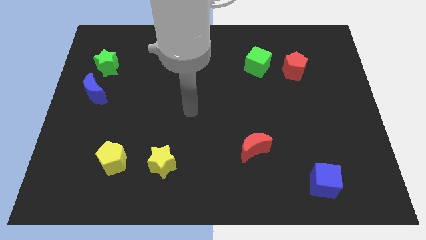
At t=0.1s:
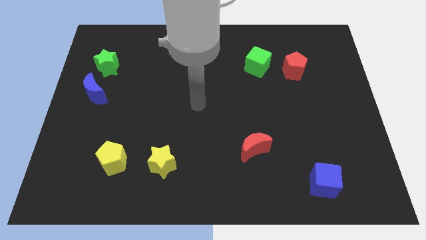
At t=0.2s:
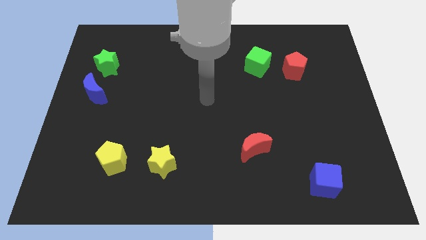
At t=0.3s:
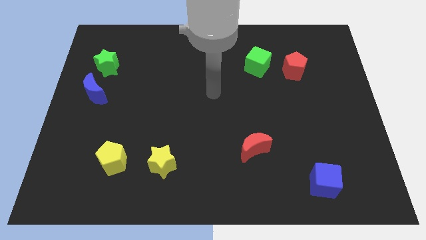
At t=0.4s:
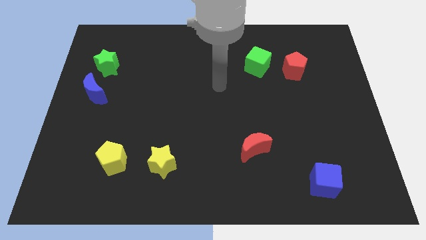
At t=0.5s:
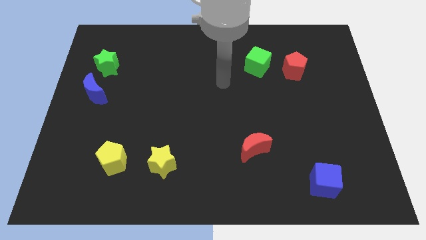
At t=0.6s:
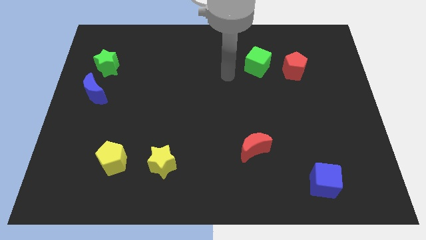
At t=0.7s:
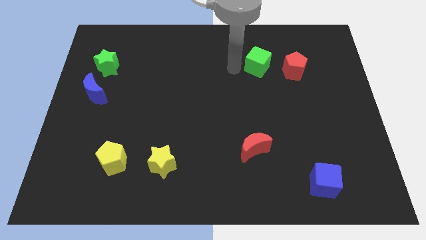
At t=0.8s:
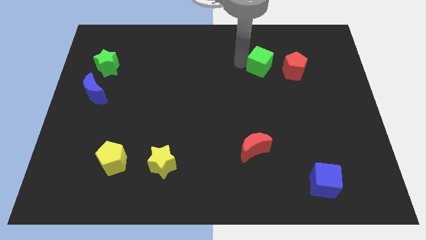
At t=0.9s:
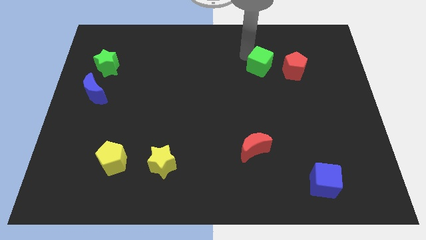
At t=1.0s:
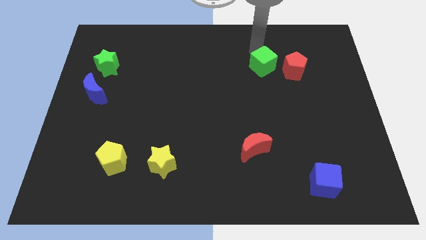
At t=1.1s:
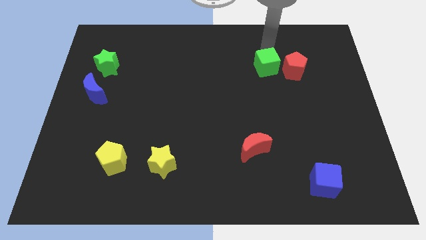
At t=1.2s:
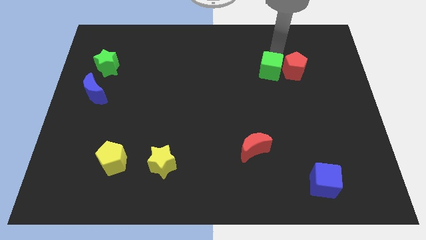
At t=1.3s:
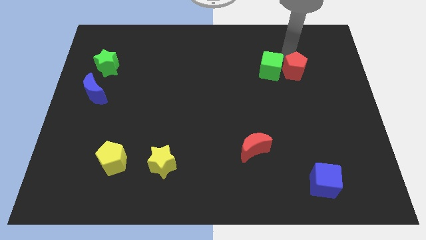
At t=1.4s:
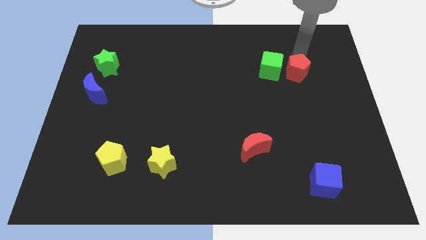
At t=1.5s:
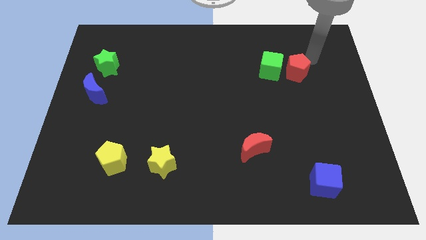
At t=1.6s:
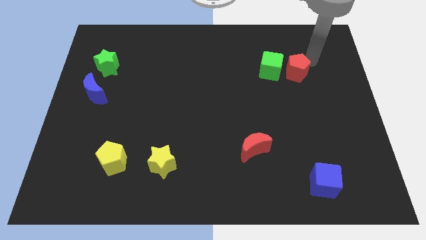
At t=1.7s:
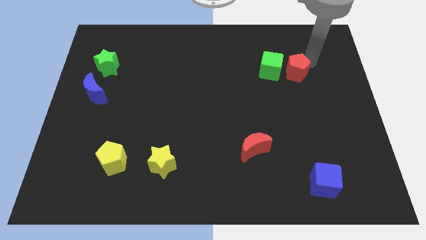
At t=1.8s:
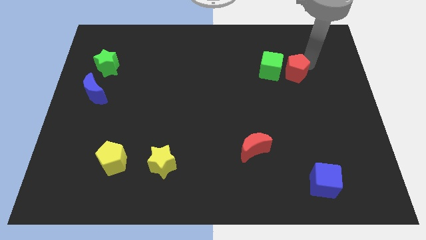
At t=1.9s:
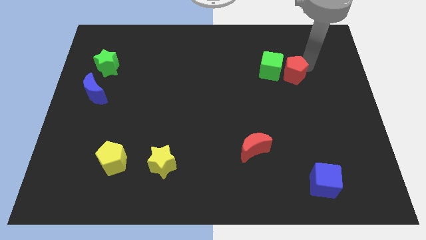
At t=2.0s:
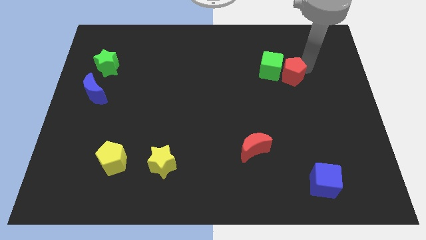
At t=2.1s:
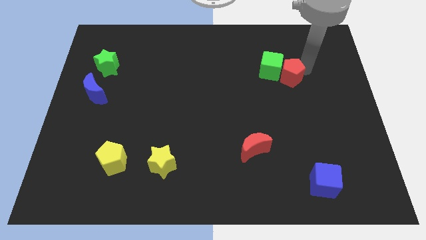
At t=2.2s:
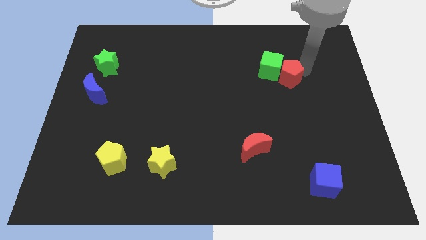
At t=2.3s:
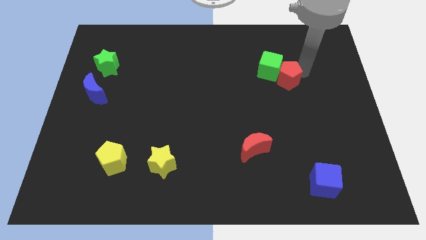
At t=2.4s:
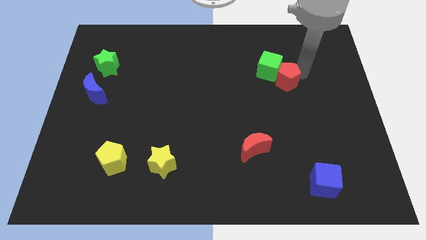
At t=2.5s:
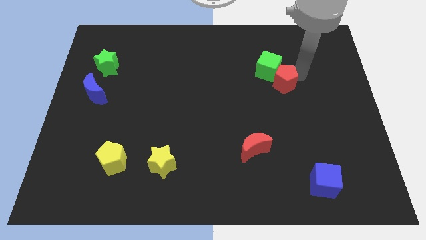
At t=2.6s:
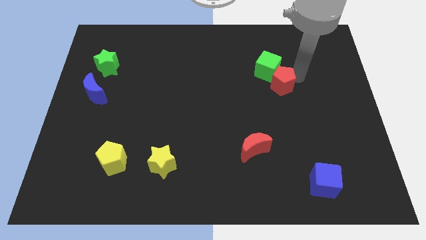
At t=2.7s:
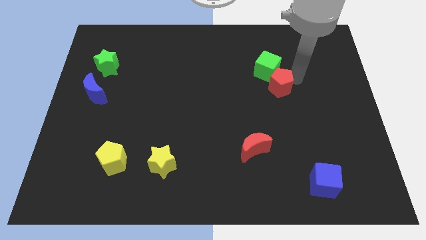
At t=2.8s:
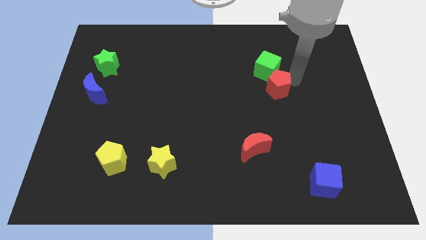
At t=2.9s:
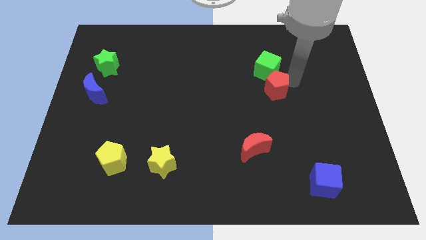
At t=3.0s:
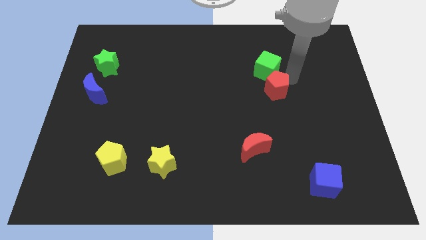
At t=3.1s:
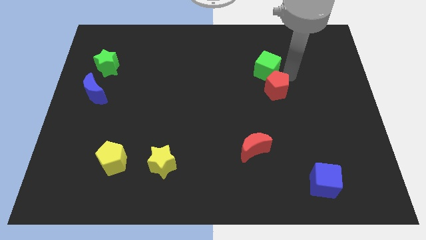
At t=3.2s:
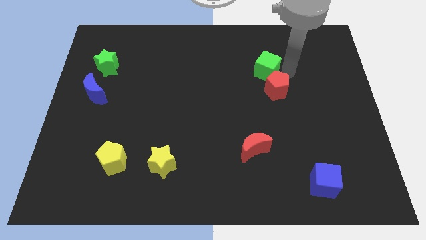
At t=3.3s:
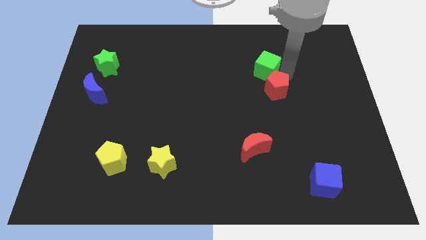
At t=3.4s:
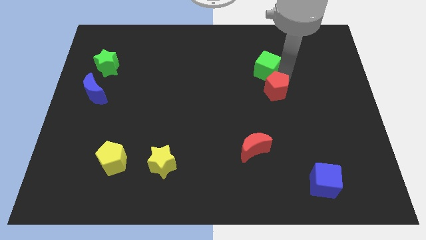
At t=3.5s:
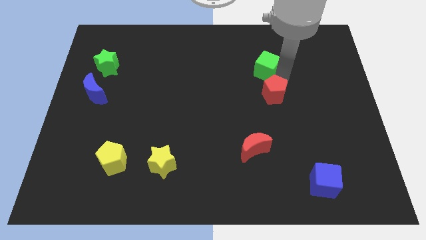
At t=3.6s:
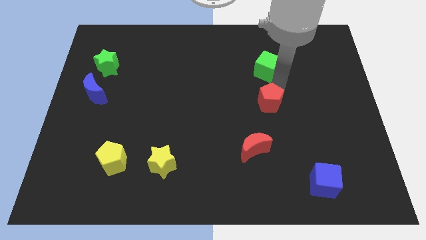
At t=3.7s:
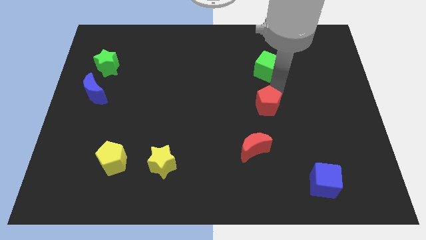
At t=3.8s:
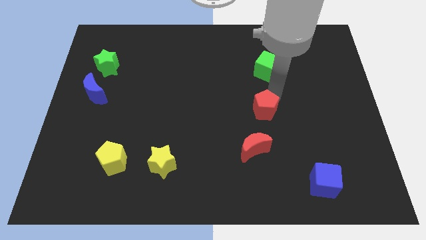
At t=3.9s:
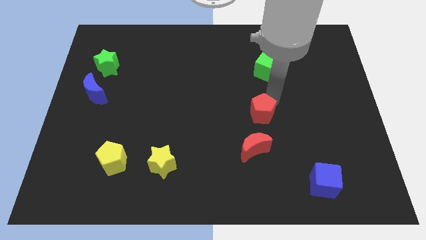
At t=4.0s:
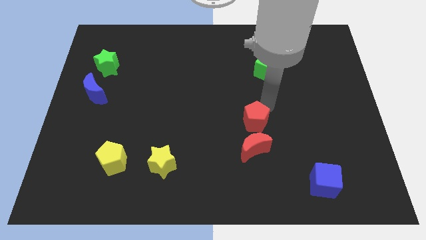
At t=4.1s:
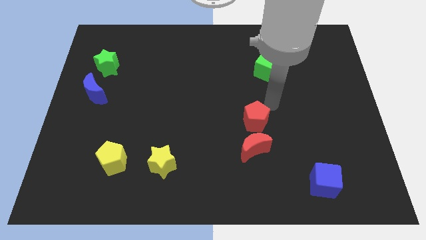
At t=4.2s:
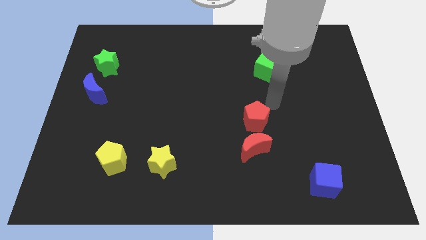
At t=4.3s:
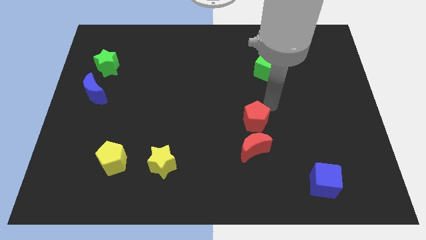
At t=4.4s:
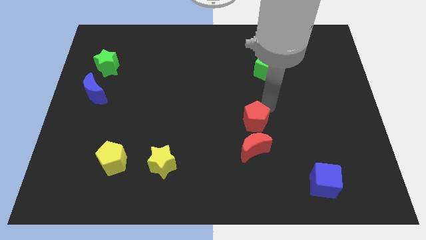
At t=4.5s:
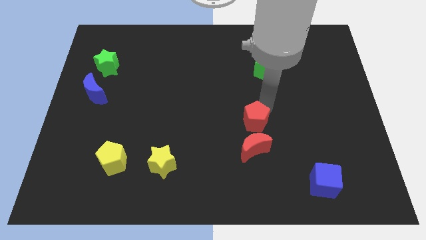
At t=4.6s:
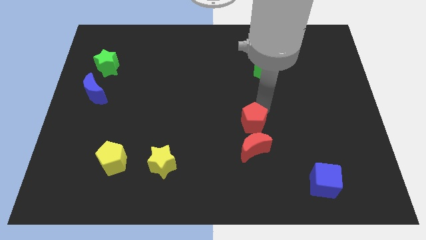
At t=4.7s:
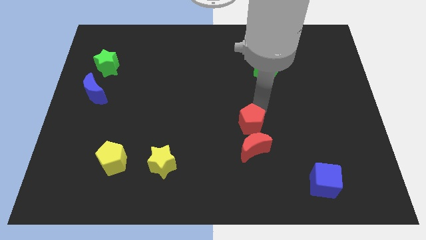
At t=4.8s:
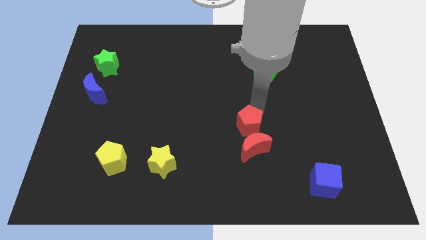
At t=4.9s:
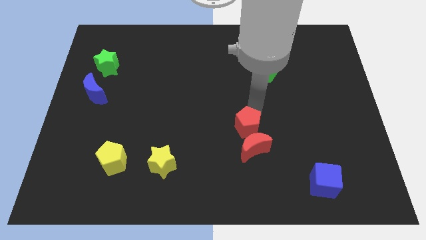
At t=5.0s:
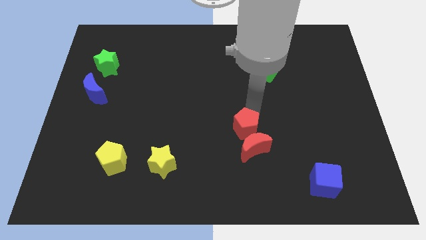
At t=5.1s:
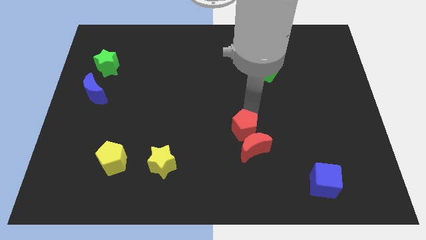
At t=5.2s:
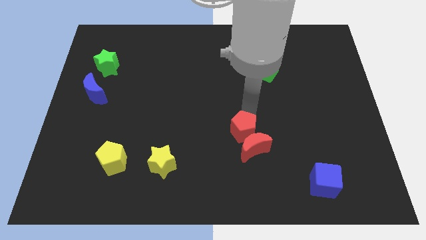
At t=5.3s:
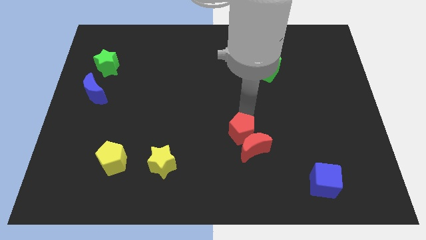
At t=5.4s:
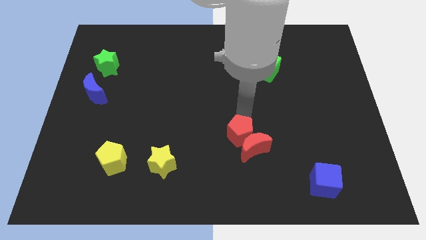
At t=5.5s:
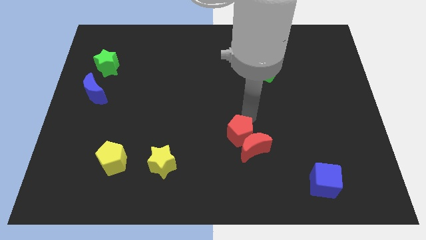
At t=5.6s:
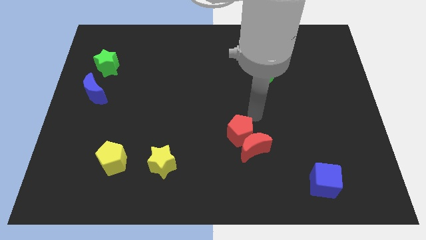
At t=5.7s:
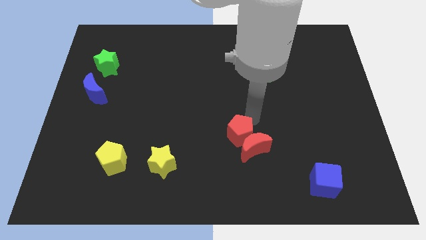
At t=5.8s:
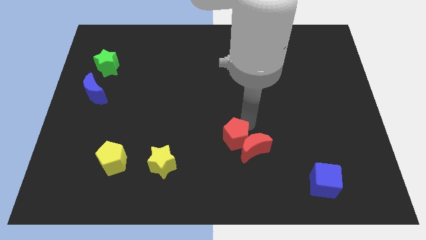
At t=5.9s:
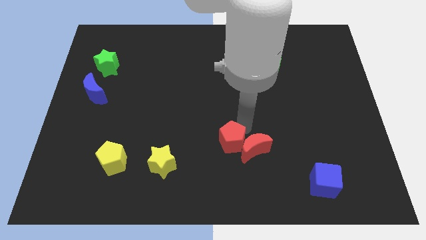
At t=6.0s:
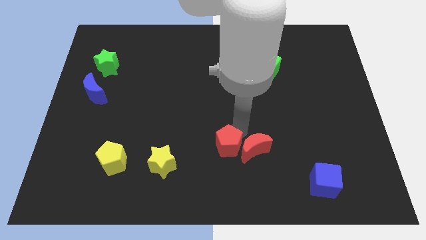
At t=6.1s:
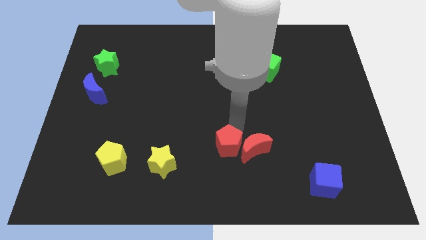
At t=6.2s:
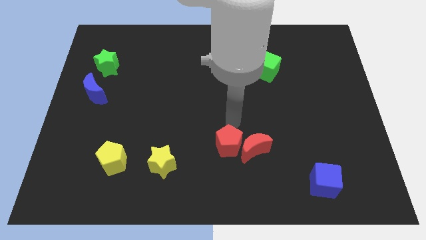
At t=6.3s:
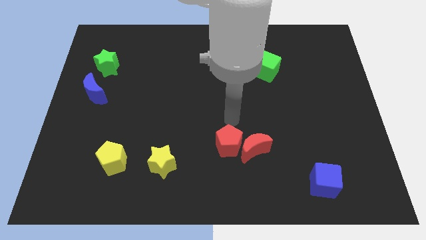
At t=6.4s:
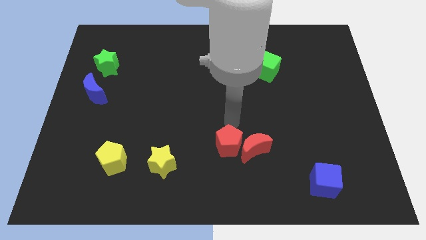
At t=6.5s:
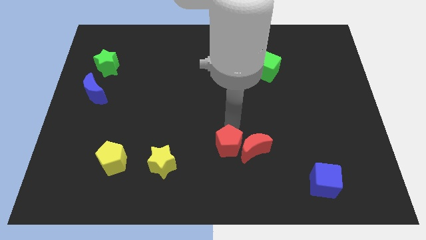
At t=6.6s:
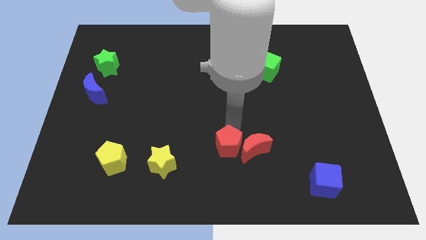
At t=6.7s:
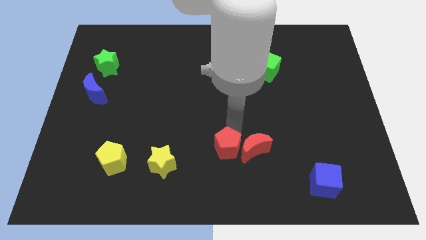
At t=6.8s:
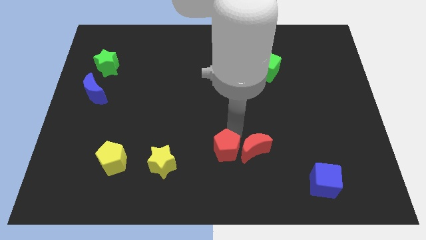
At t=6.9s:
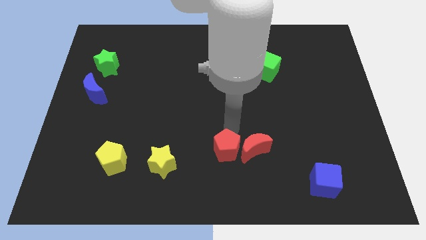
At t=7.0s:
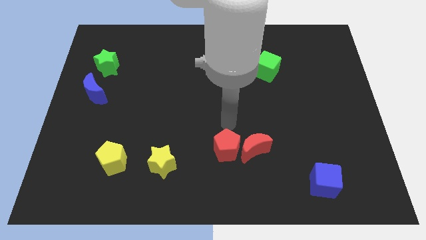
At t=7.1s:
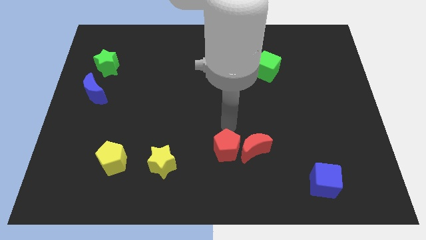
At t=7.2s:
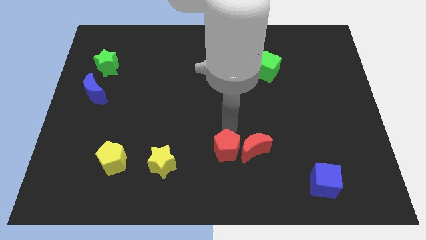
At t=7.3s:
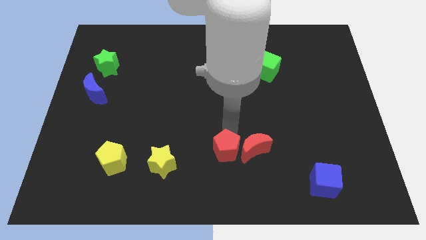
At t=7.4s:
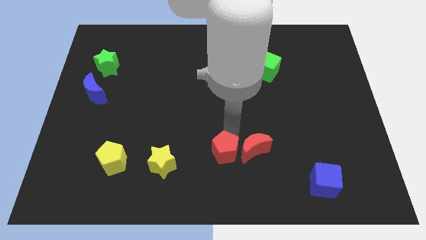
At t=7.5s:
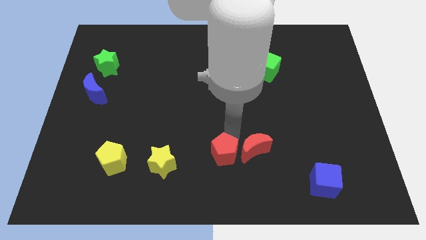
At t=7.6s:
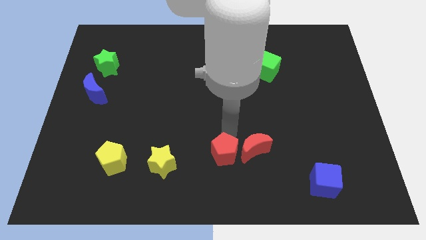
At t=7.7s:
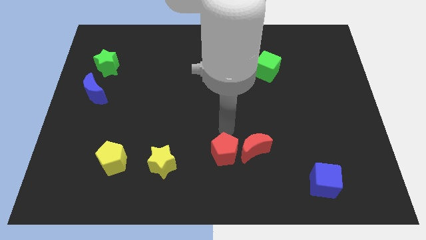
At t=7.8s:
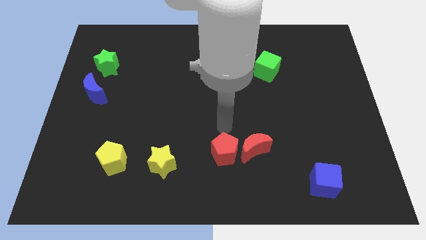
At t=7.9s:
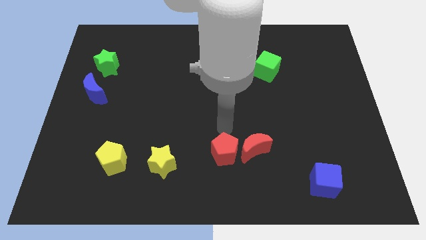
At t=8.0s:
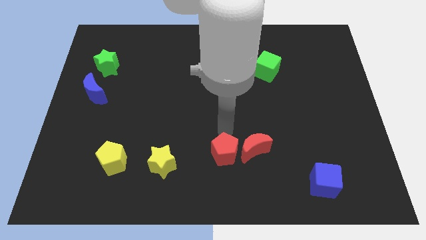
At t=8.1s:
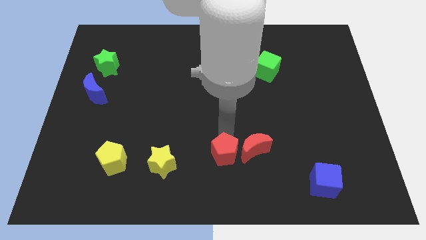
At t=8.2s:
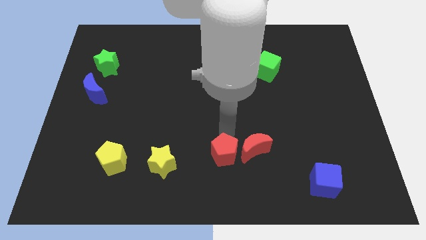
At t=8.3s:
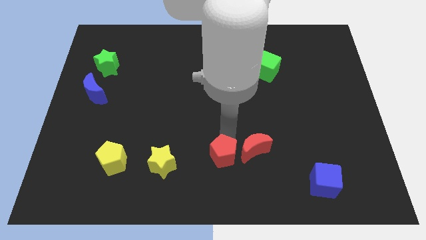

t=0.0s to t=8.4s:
slide the red pentagon to the bottom
